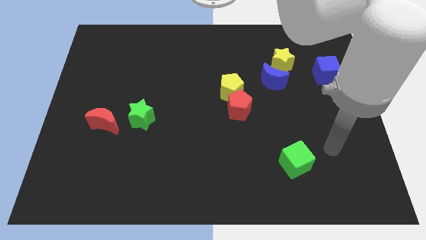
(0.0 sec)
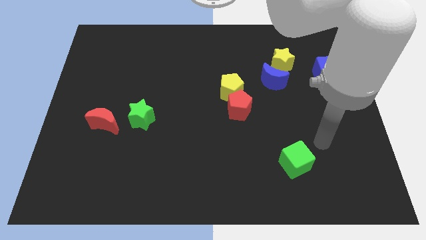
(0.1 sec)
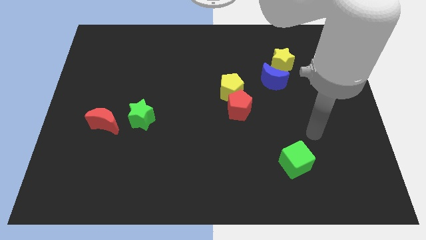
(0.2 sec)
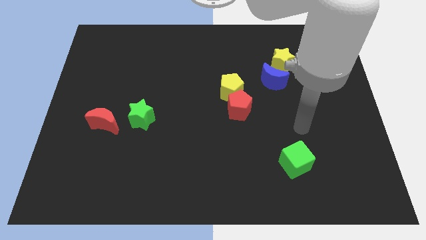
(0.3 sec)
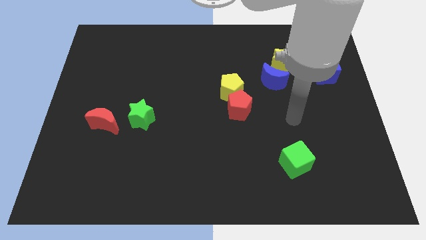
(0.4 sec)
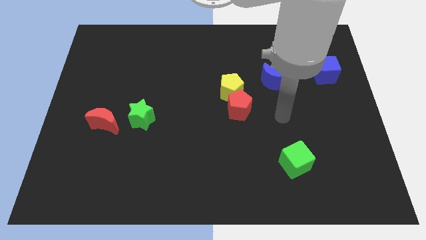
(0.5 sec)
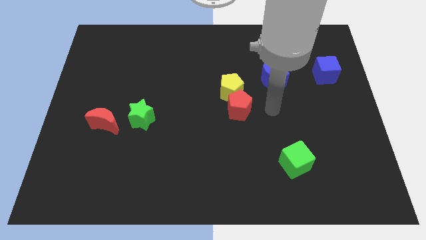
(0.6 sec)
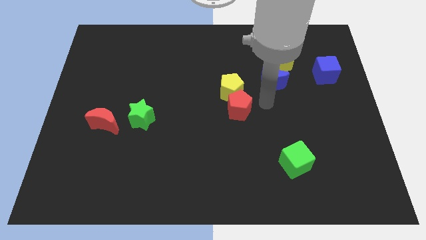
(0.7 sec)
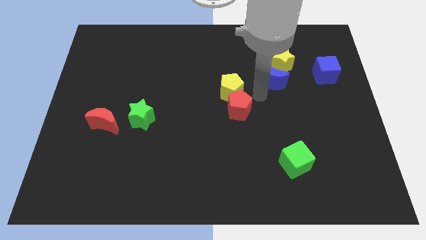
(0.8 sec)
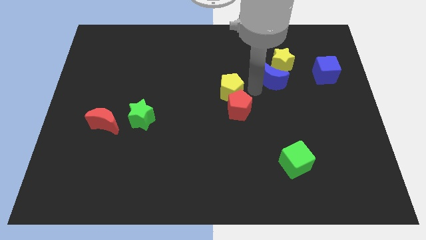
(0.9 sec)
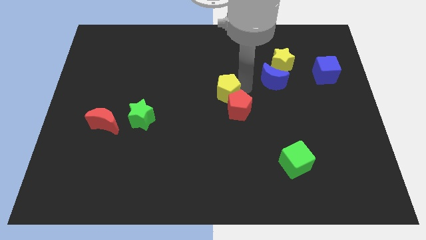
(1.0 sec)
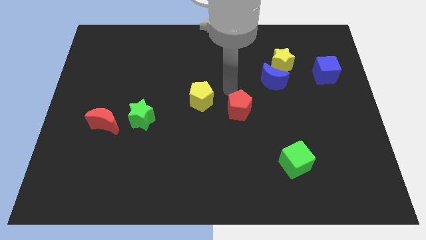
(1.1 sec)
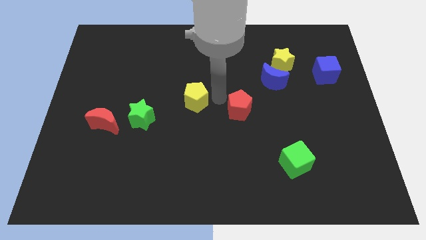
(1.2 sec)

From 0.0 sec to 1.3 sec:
pull the red pentagon apart from the yellow pentagon

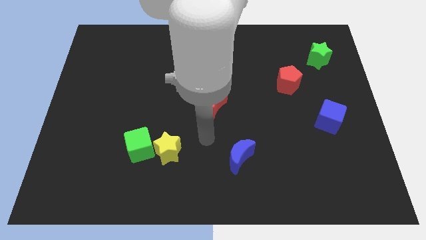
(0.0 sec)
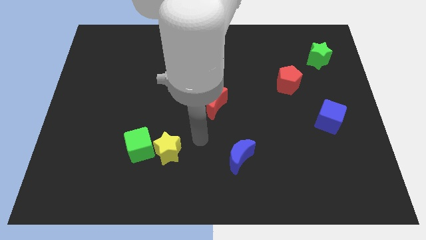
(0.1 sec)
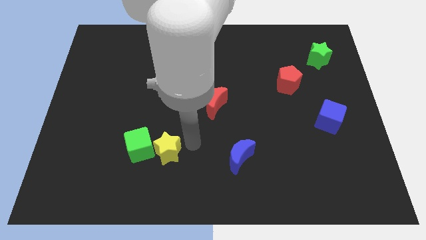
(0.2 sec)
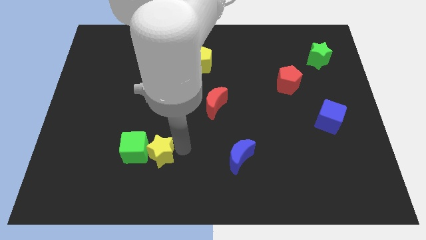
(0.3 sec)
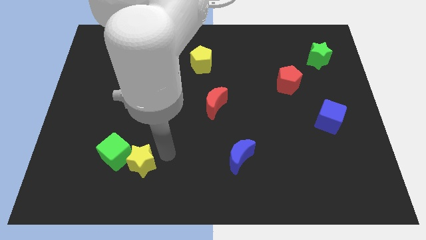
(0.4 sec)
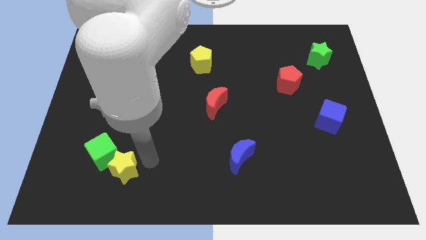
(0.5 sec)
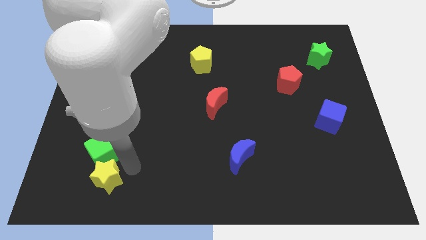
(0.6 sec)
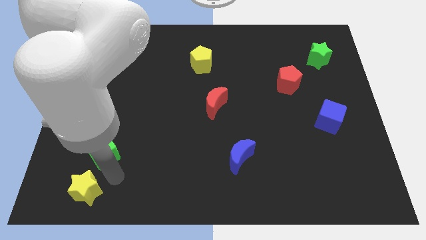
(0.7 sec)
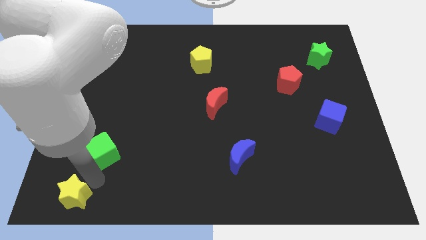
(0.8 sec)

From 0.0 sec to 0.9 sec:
pull the green cube apart from the yellow star

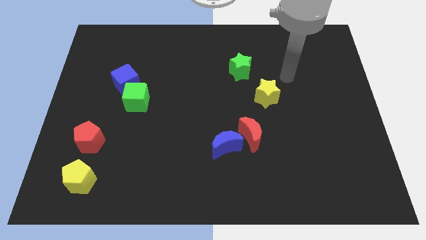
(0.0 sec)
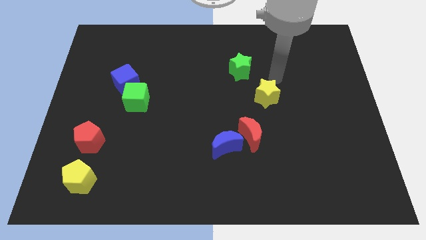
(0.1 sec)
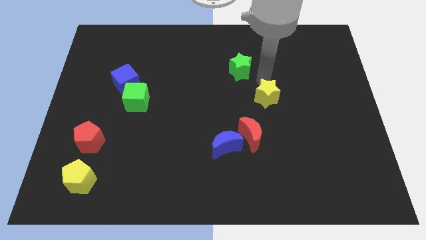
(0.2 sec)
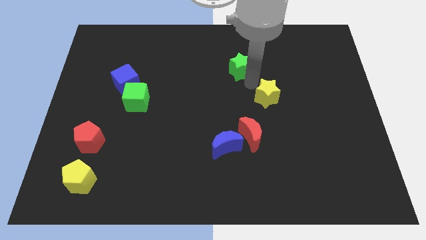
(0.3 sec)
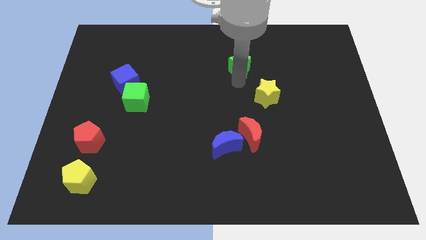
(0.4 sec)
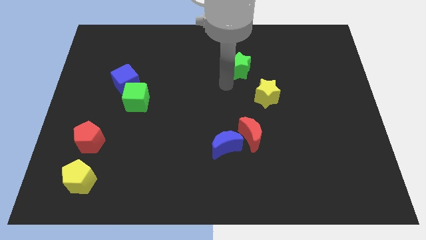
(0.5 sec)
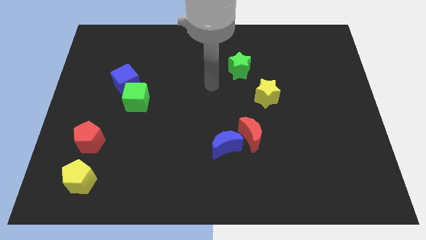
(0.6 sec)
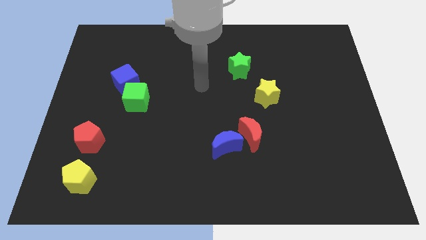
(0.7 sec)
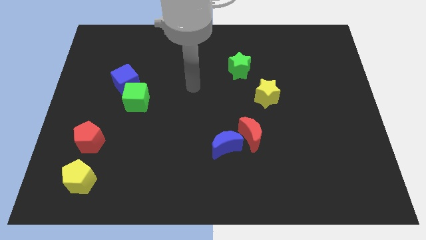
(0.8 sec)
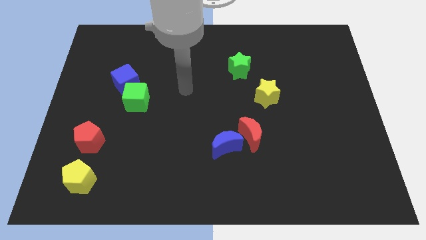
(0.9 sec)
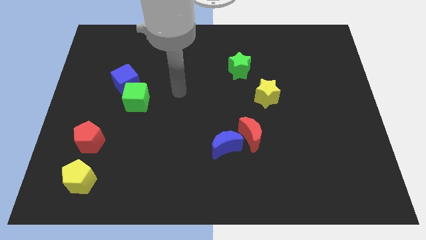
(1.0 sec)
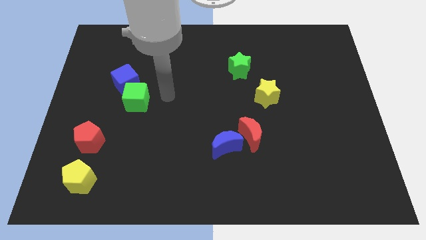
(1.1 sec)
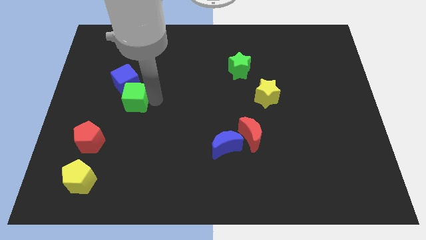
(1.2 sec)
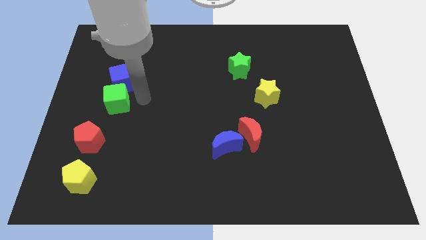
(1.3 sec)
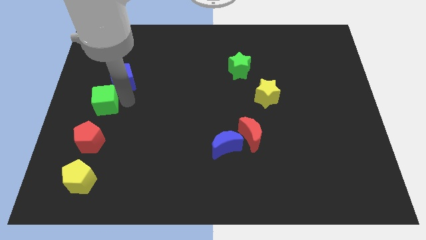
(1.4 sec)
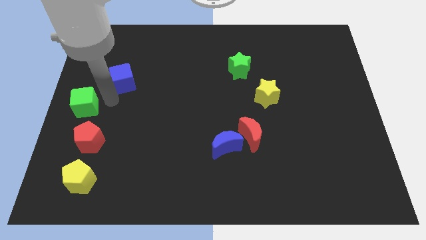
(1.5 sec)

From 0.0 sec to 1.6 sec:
pull the blue cube apart from the green cube

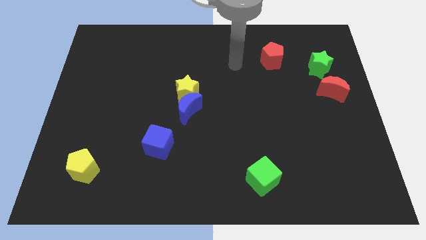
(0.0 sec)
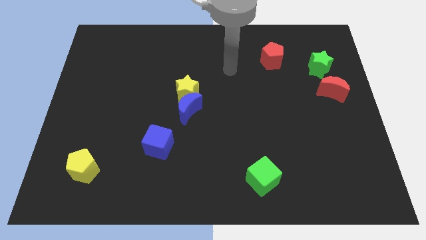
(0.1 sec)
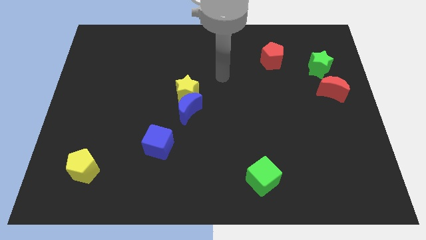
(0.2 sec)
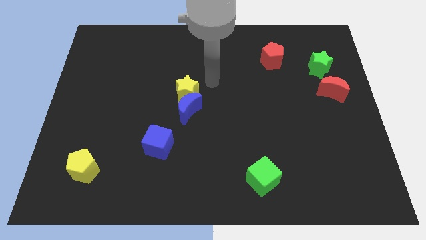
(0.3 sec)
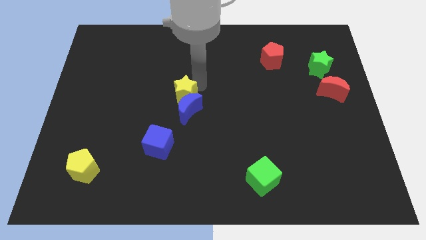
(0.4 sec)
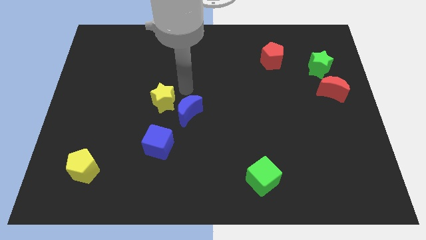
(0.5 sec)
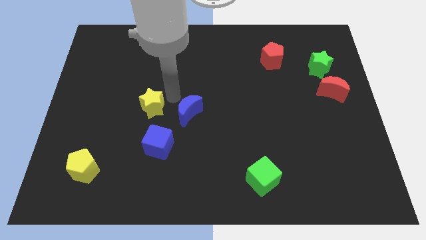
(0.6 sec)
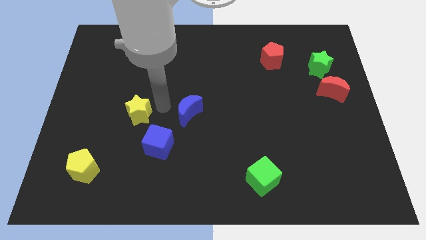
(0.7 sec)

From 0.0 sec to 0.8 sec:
separate the blue moon from the yellow star

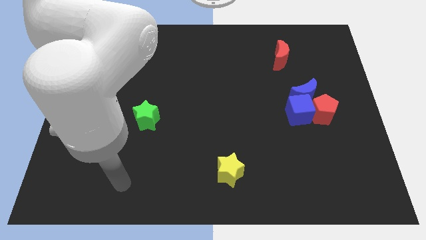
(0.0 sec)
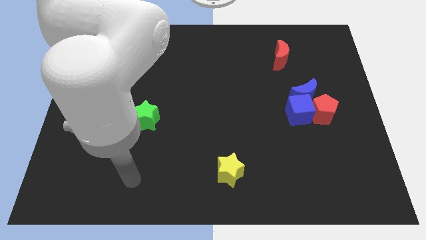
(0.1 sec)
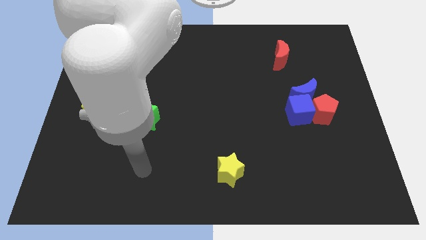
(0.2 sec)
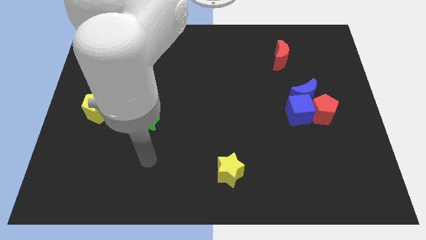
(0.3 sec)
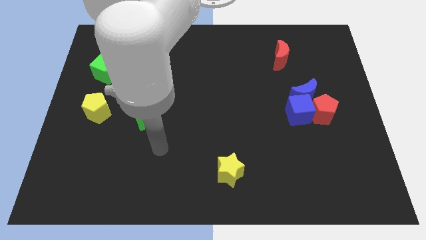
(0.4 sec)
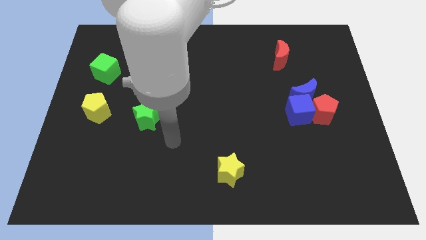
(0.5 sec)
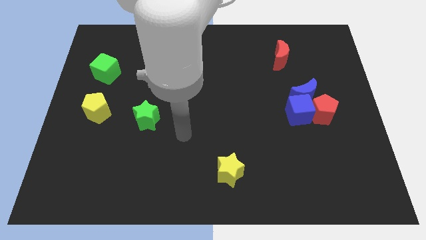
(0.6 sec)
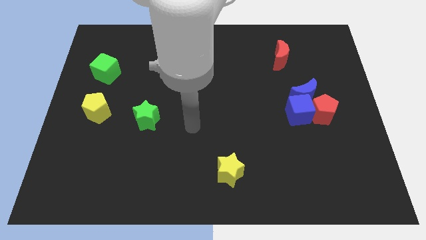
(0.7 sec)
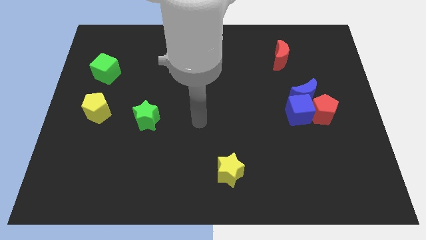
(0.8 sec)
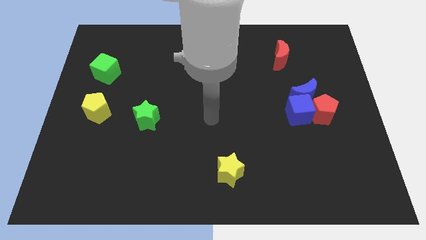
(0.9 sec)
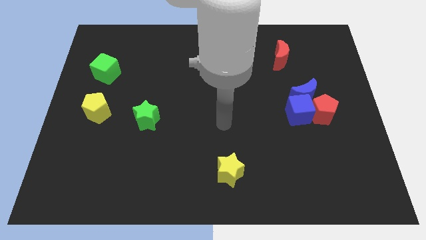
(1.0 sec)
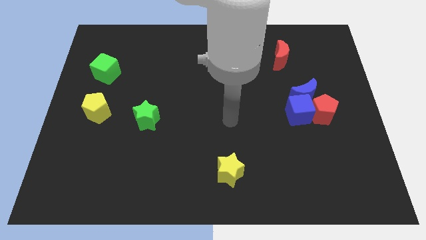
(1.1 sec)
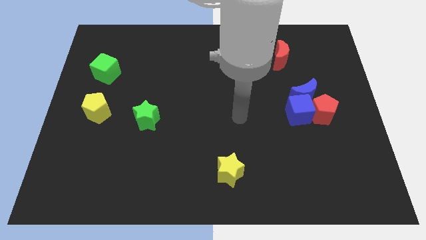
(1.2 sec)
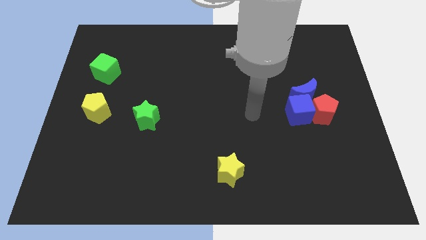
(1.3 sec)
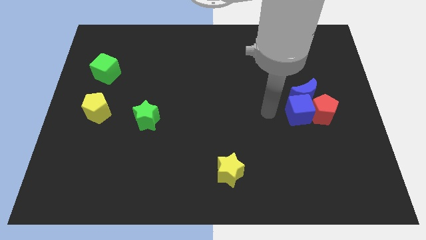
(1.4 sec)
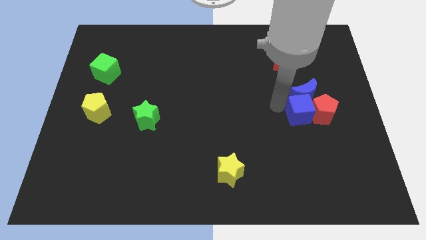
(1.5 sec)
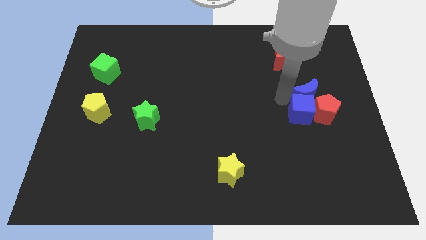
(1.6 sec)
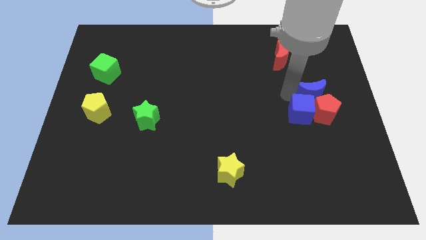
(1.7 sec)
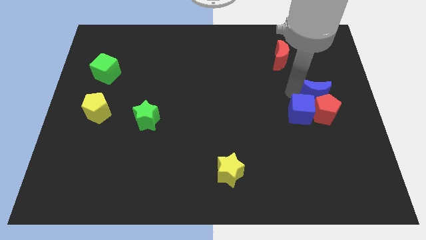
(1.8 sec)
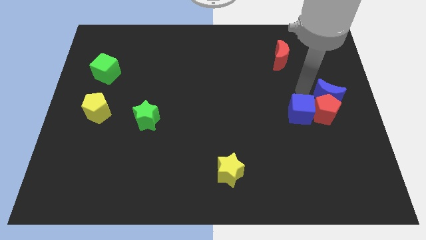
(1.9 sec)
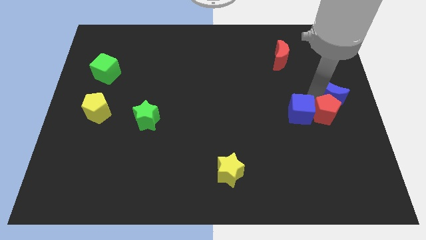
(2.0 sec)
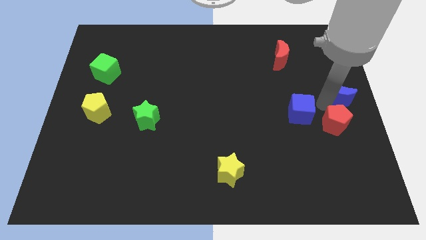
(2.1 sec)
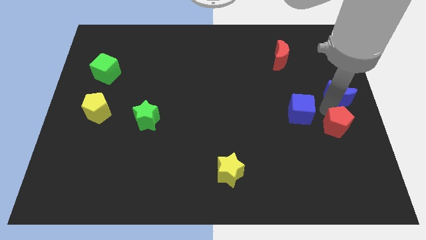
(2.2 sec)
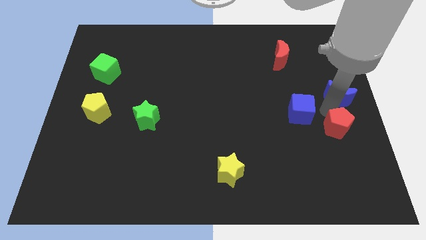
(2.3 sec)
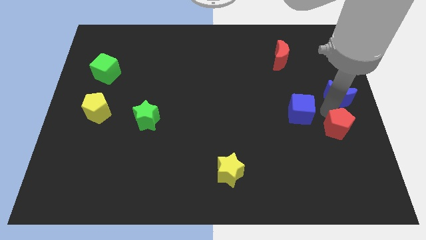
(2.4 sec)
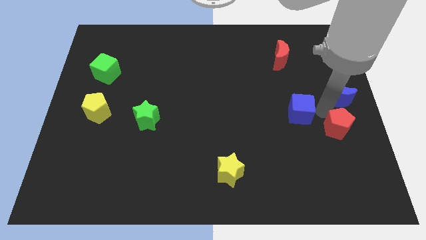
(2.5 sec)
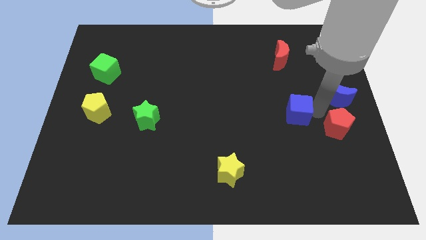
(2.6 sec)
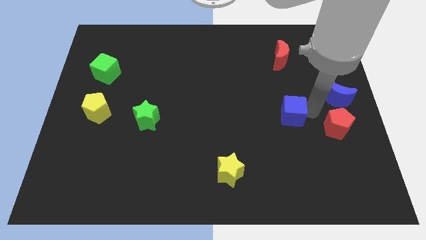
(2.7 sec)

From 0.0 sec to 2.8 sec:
move the blue cube away from the blue moon and red pentagon

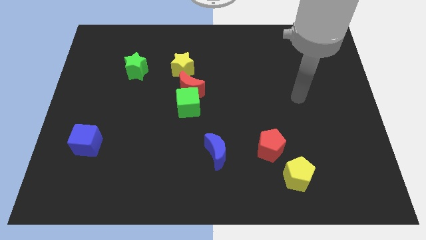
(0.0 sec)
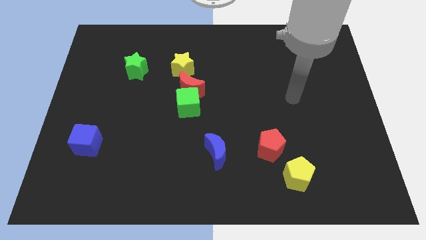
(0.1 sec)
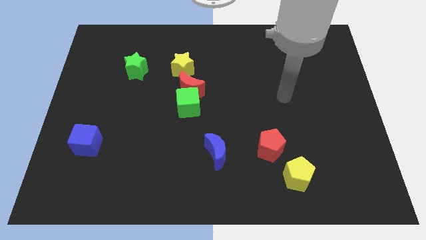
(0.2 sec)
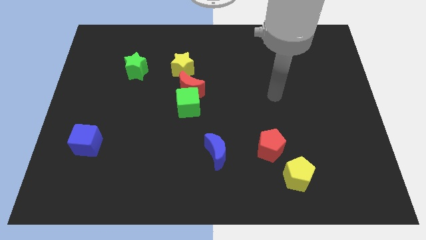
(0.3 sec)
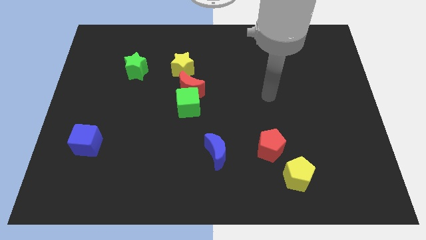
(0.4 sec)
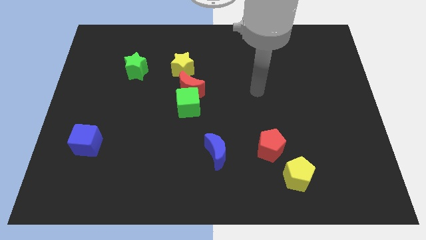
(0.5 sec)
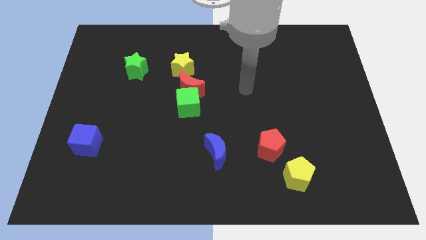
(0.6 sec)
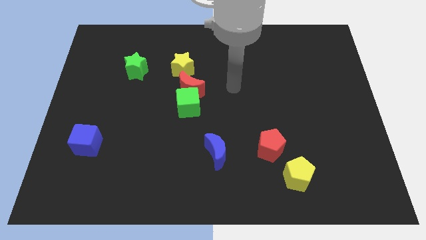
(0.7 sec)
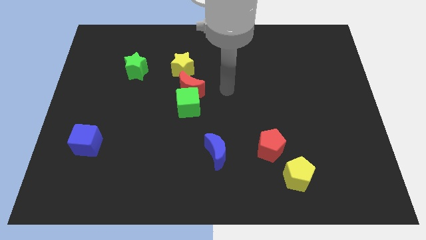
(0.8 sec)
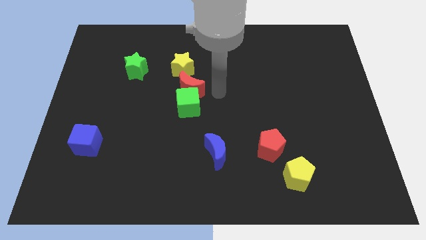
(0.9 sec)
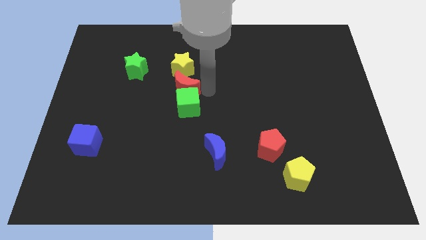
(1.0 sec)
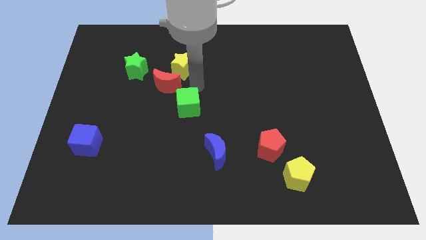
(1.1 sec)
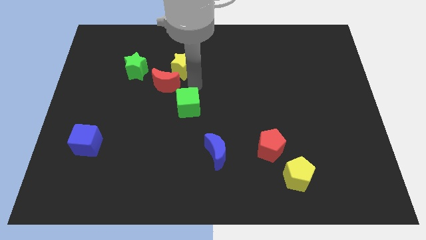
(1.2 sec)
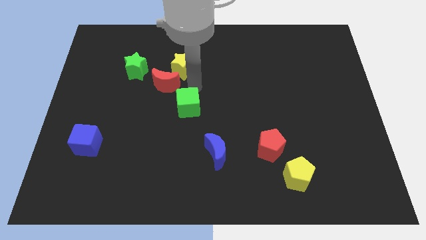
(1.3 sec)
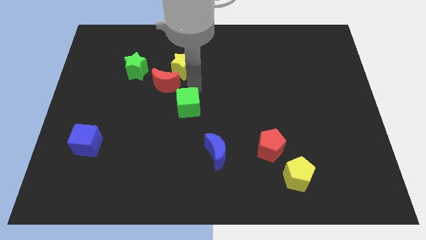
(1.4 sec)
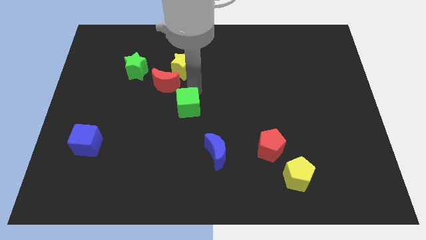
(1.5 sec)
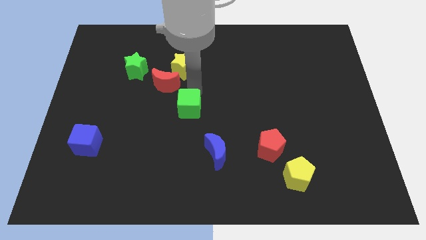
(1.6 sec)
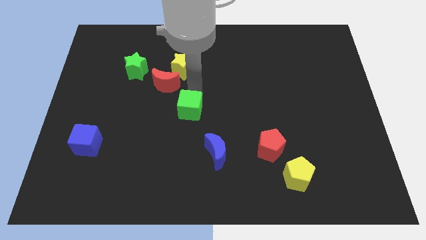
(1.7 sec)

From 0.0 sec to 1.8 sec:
pull the green cube apart from the red moon

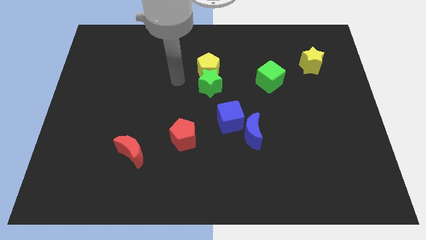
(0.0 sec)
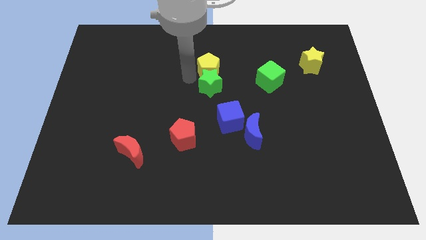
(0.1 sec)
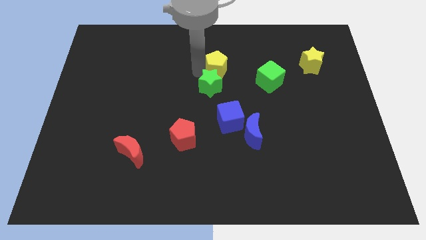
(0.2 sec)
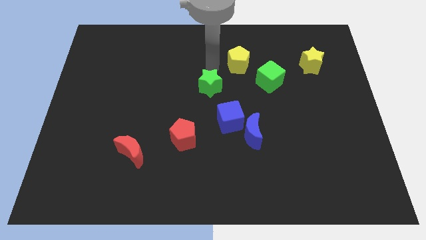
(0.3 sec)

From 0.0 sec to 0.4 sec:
pull the green star apart from the yellow pentagon
